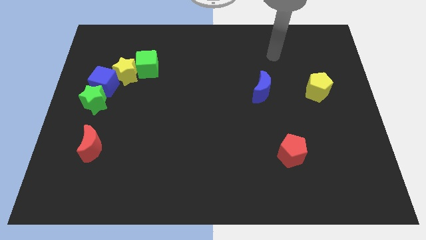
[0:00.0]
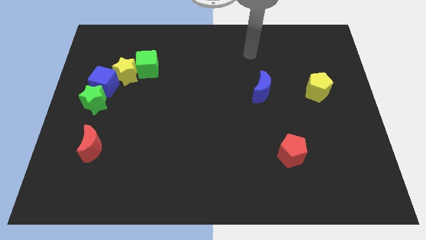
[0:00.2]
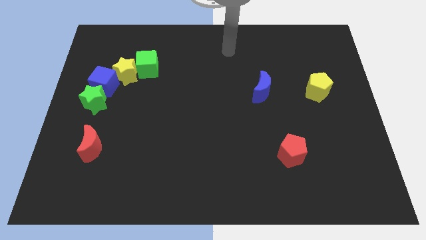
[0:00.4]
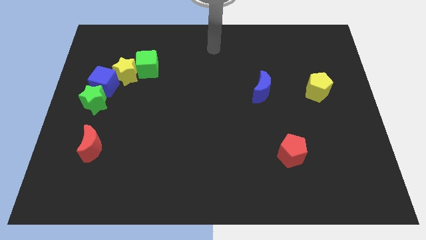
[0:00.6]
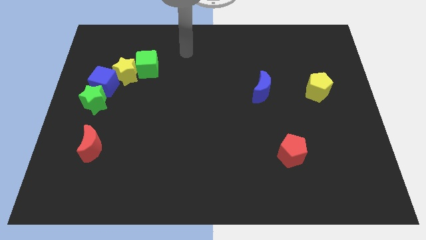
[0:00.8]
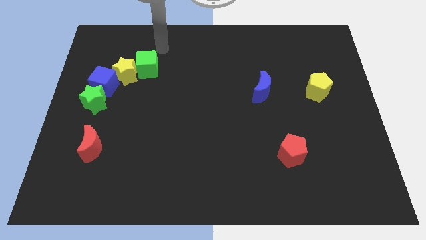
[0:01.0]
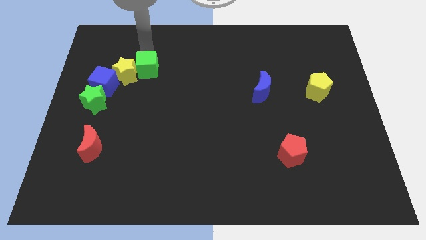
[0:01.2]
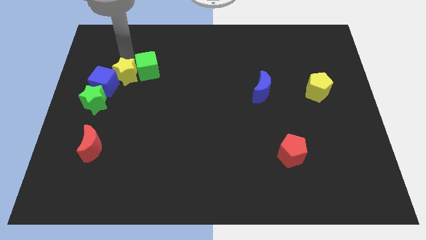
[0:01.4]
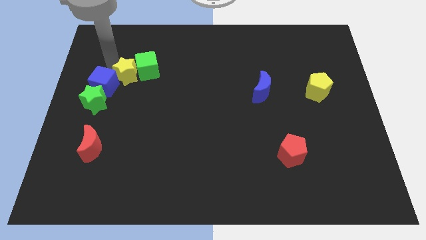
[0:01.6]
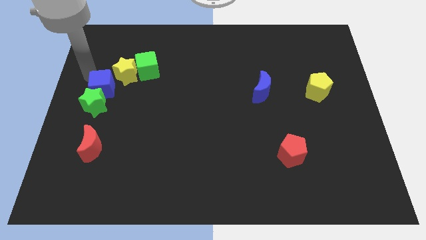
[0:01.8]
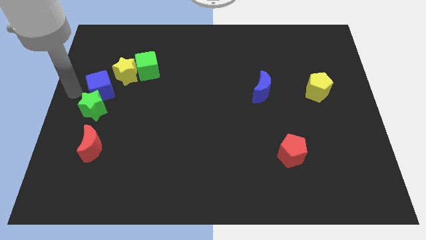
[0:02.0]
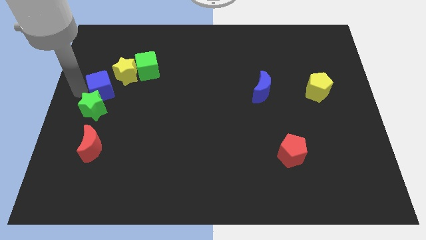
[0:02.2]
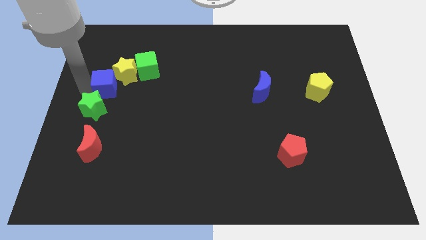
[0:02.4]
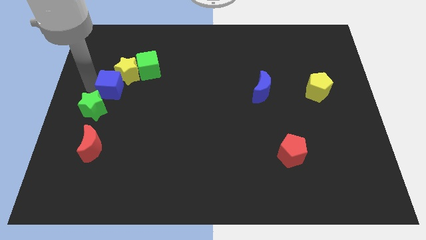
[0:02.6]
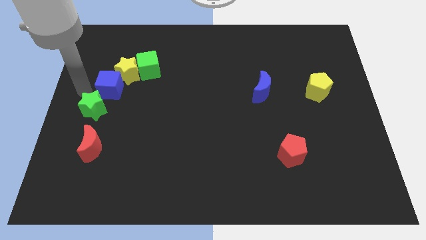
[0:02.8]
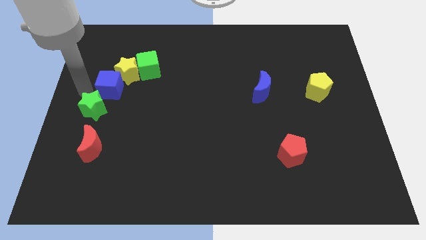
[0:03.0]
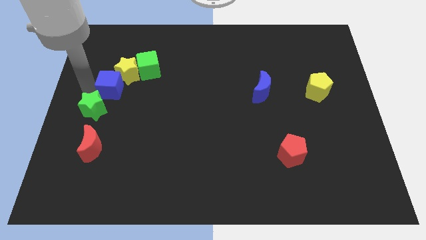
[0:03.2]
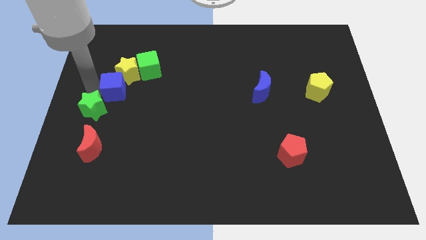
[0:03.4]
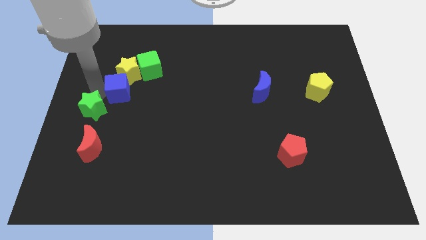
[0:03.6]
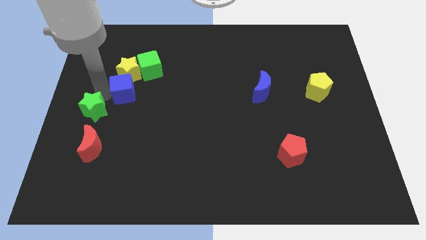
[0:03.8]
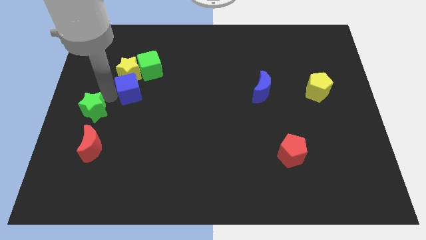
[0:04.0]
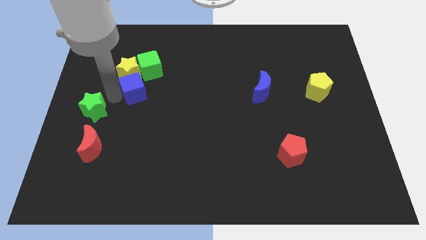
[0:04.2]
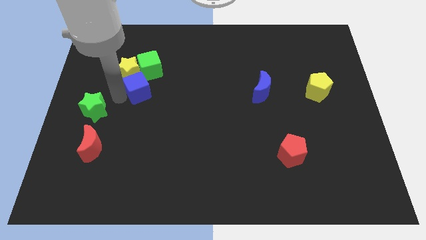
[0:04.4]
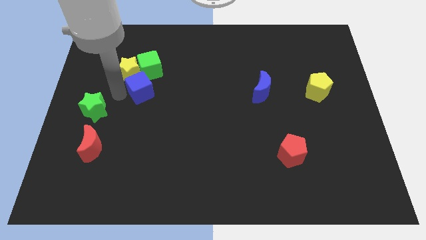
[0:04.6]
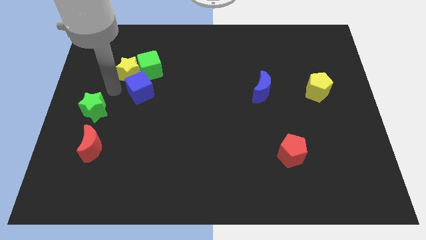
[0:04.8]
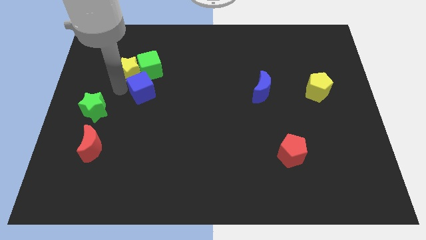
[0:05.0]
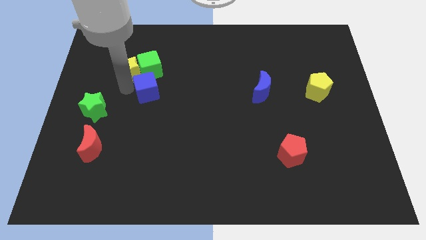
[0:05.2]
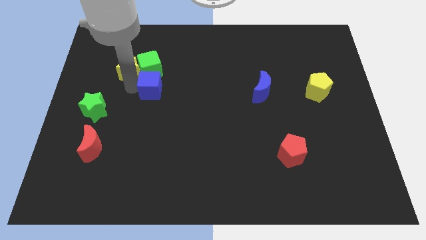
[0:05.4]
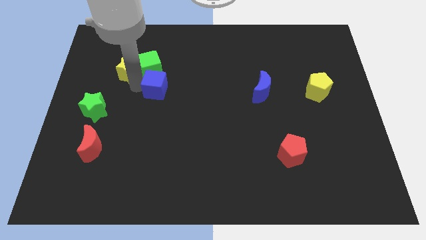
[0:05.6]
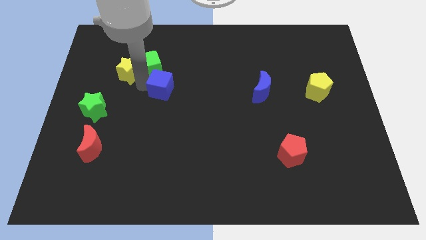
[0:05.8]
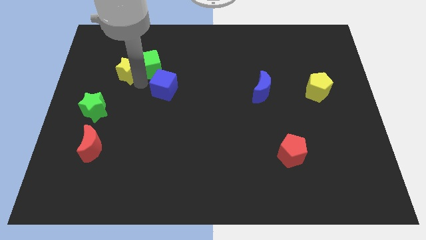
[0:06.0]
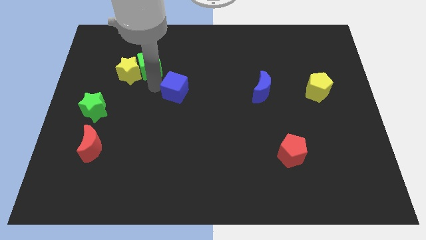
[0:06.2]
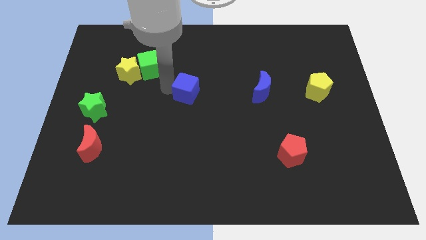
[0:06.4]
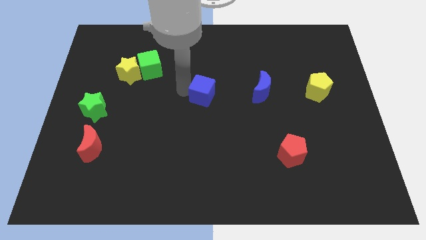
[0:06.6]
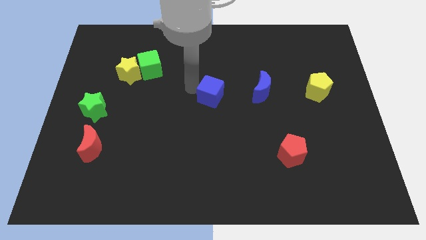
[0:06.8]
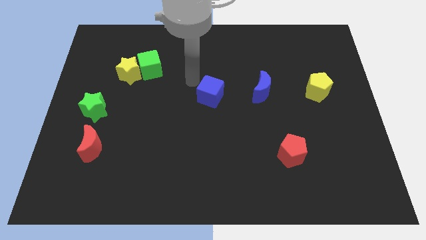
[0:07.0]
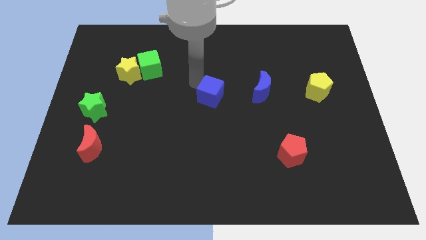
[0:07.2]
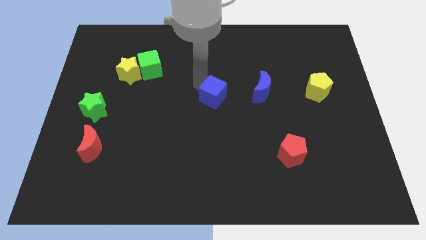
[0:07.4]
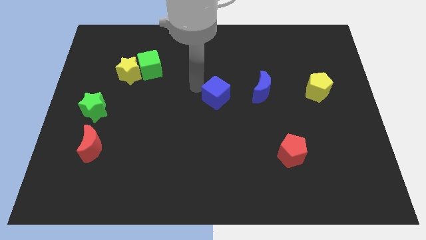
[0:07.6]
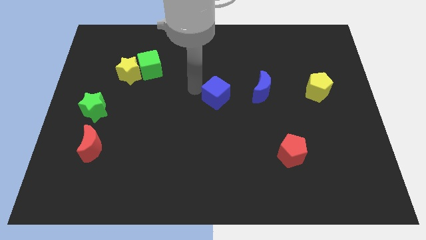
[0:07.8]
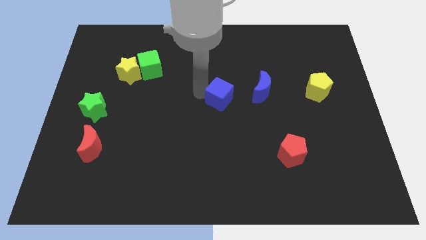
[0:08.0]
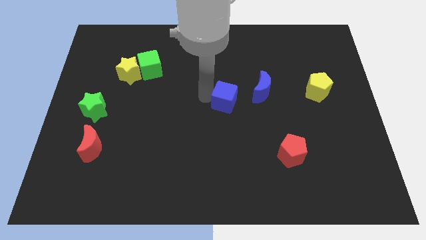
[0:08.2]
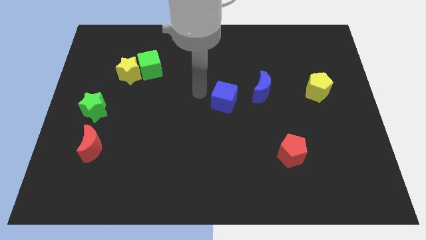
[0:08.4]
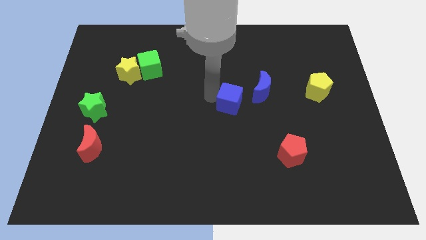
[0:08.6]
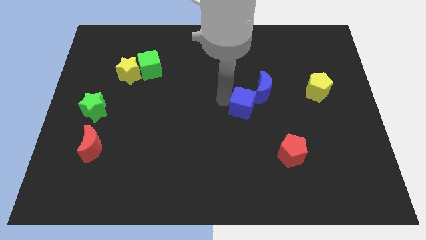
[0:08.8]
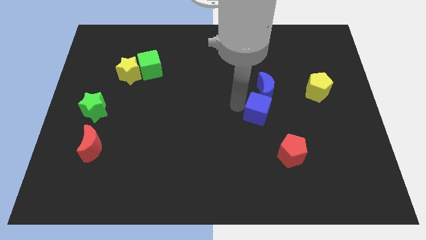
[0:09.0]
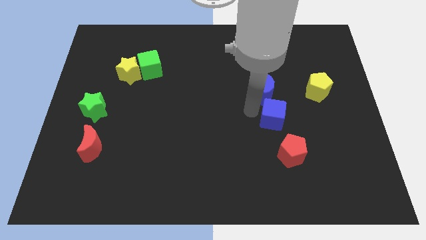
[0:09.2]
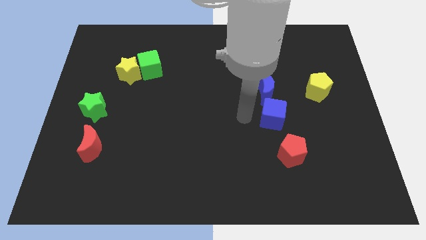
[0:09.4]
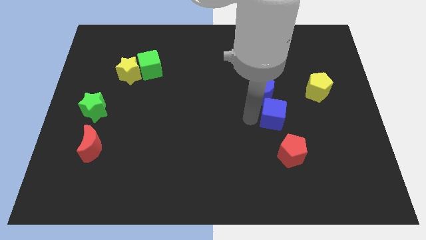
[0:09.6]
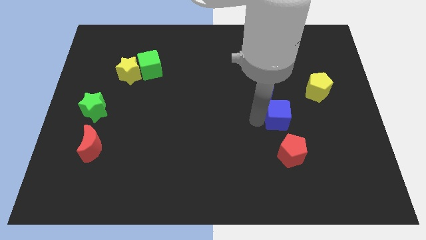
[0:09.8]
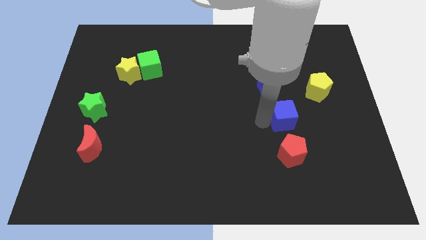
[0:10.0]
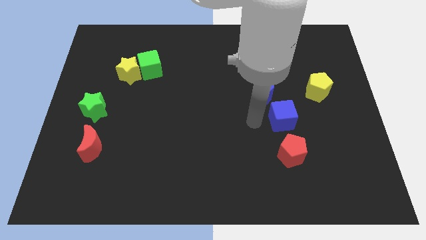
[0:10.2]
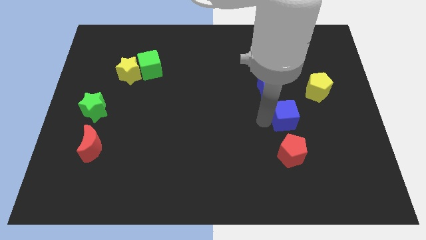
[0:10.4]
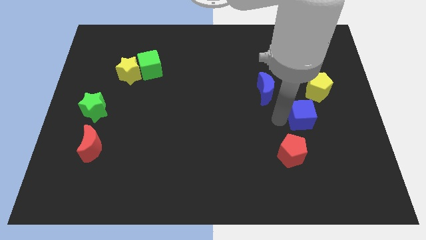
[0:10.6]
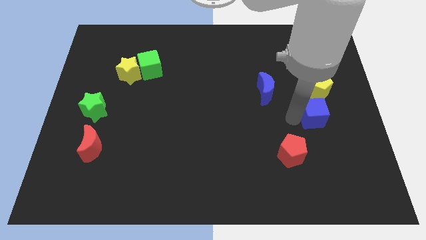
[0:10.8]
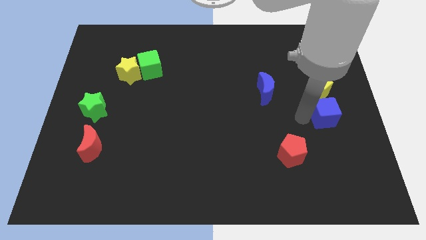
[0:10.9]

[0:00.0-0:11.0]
move the blue cube to the right side of the board
